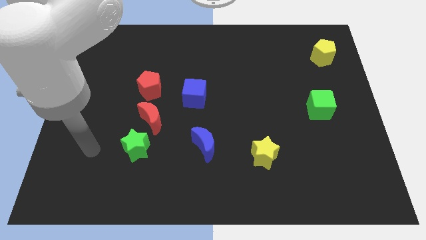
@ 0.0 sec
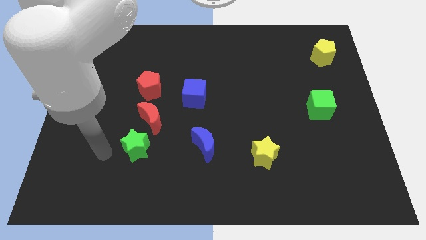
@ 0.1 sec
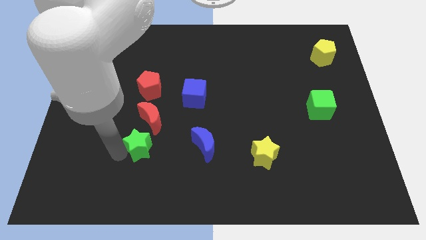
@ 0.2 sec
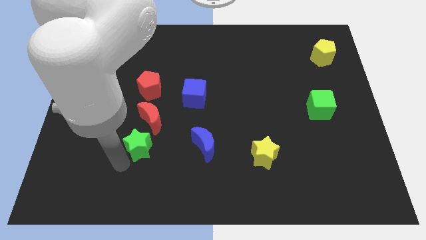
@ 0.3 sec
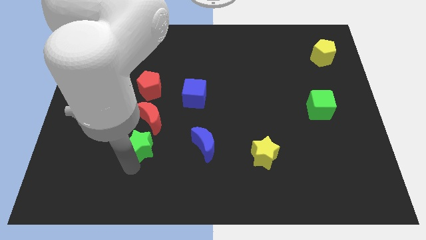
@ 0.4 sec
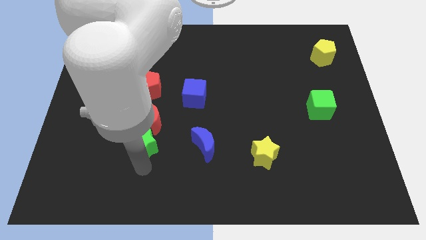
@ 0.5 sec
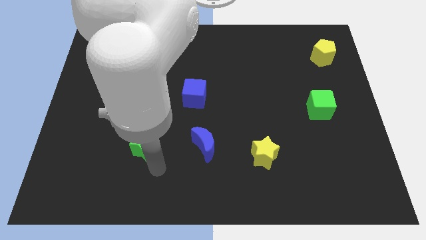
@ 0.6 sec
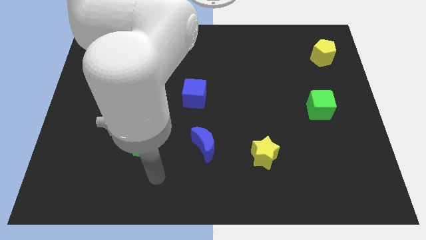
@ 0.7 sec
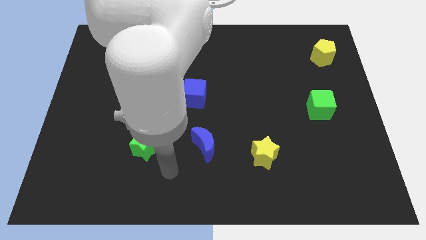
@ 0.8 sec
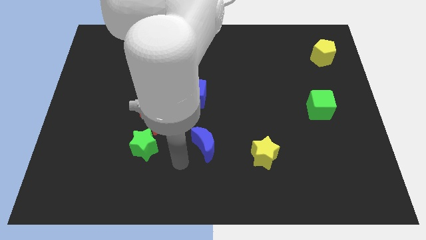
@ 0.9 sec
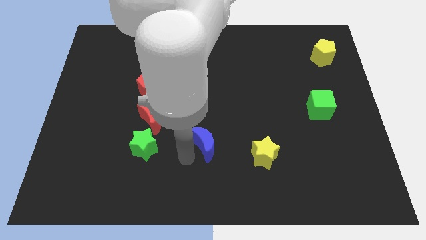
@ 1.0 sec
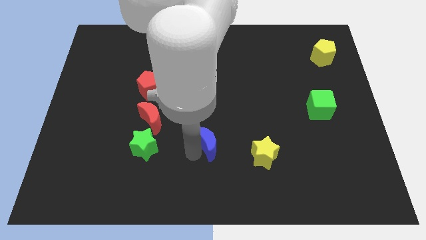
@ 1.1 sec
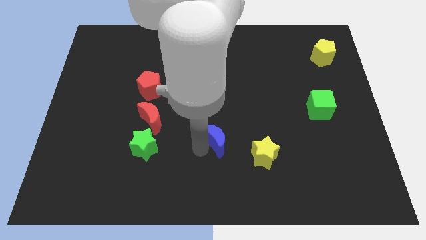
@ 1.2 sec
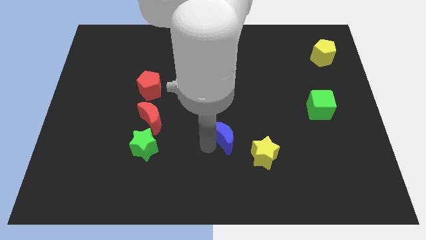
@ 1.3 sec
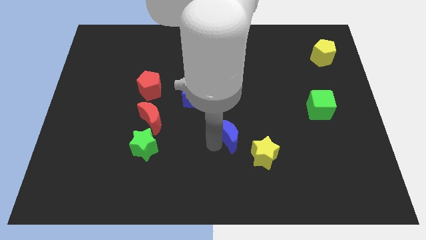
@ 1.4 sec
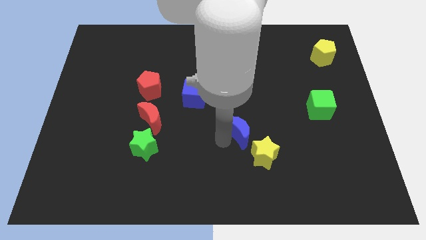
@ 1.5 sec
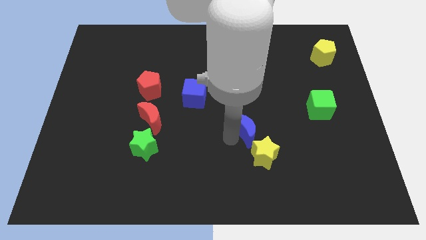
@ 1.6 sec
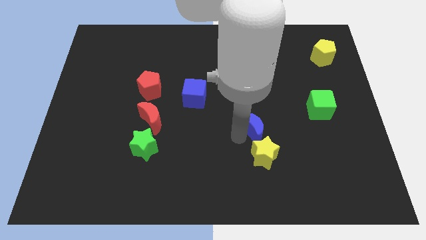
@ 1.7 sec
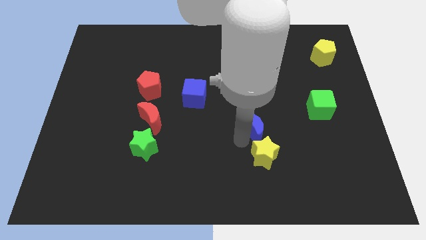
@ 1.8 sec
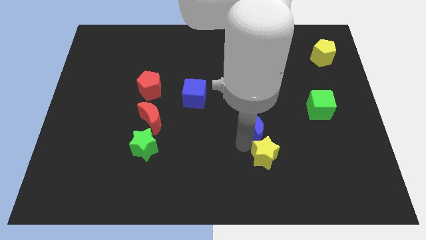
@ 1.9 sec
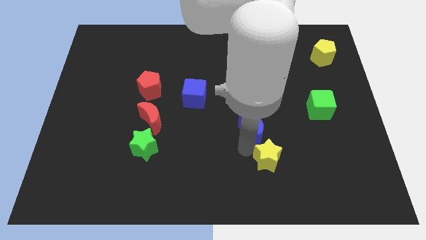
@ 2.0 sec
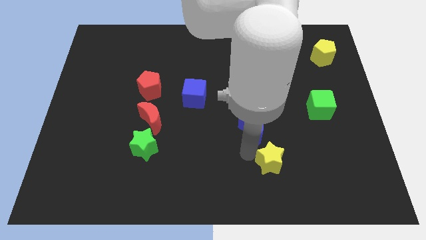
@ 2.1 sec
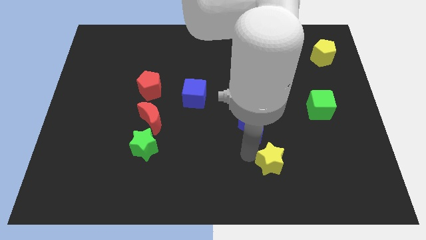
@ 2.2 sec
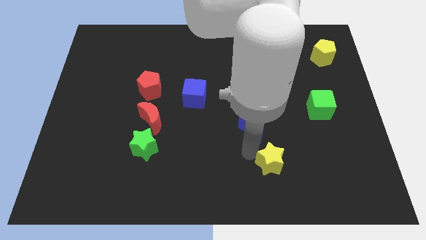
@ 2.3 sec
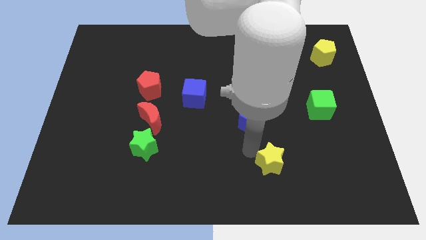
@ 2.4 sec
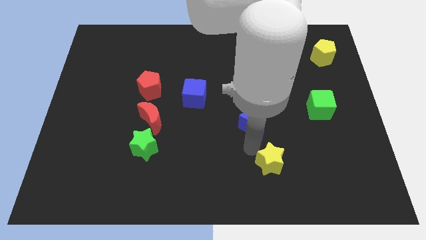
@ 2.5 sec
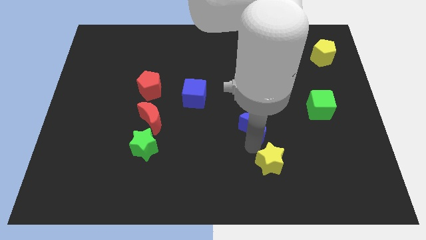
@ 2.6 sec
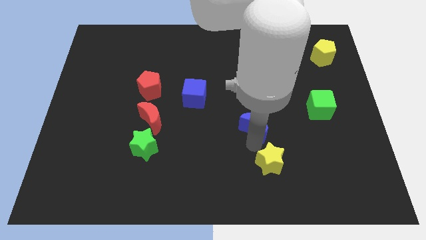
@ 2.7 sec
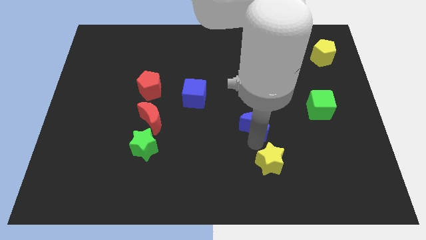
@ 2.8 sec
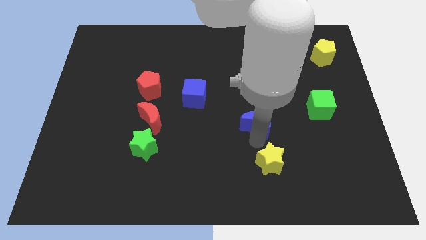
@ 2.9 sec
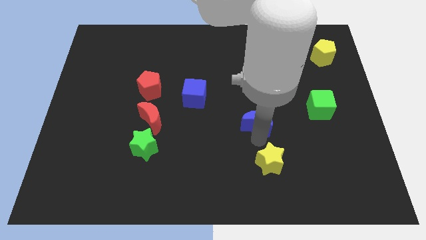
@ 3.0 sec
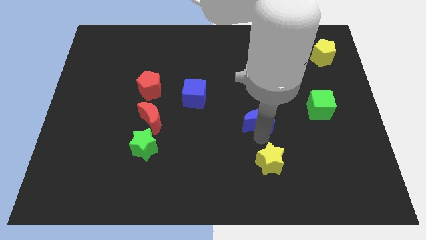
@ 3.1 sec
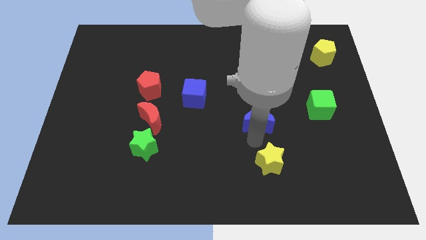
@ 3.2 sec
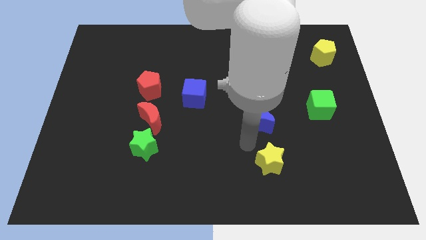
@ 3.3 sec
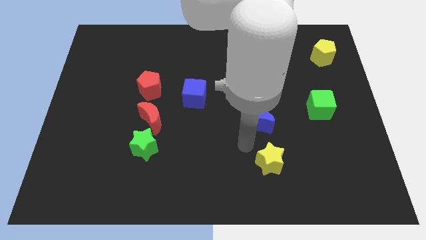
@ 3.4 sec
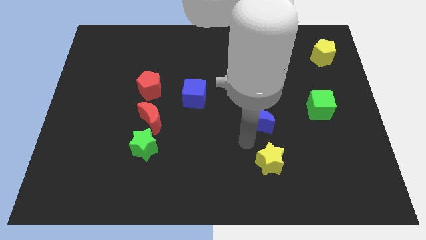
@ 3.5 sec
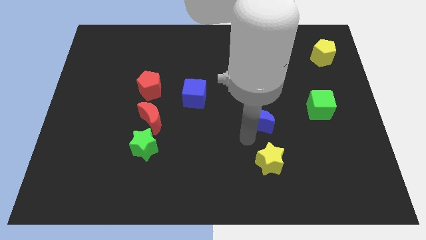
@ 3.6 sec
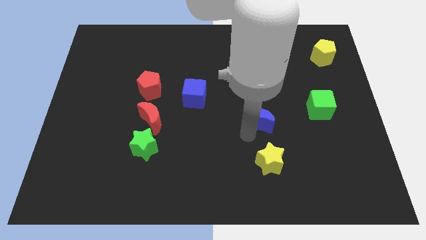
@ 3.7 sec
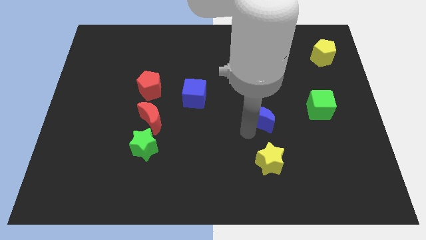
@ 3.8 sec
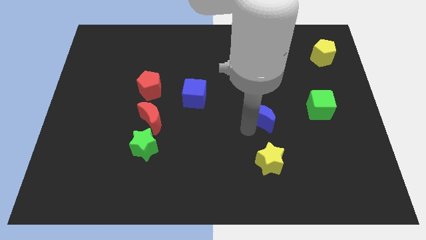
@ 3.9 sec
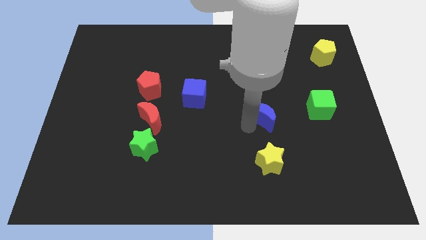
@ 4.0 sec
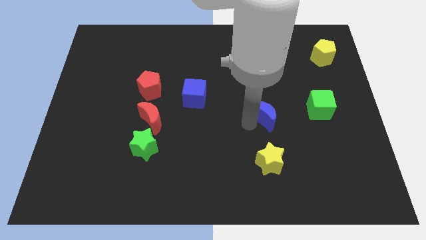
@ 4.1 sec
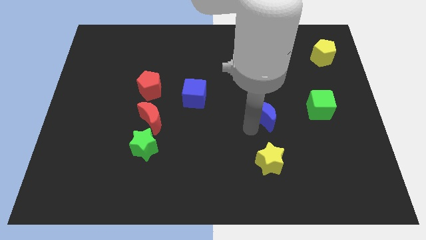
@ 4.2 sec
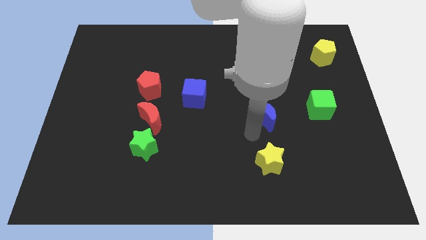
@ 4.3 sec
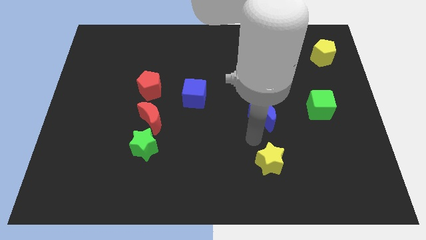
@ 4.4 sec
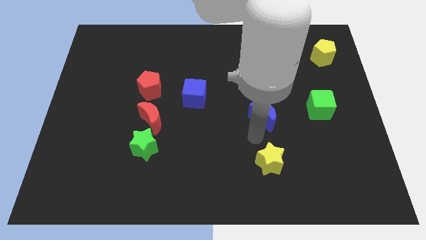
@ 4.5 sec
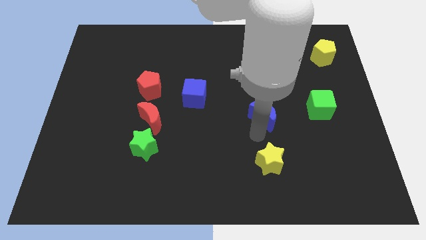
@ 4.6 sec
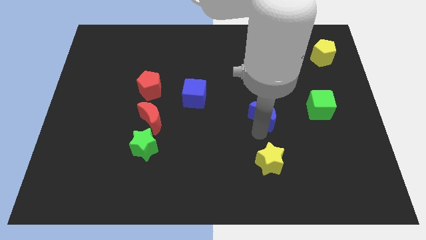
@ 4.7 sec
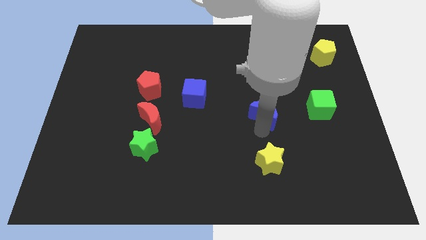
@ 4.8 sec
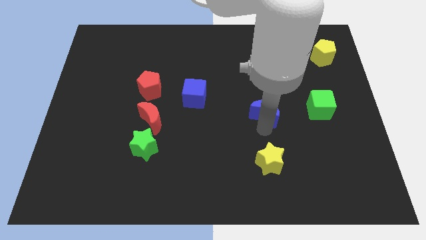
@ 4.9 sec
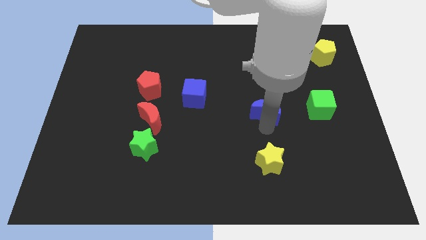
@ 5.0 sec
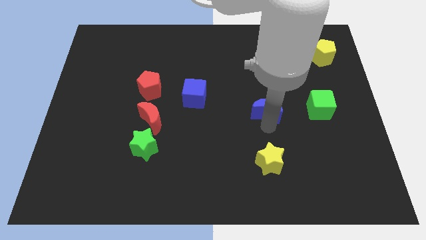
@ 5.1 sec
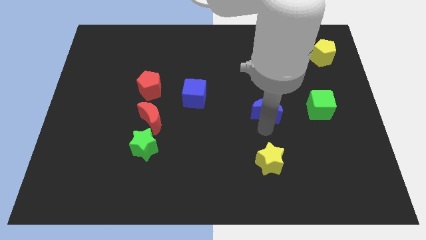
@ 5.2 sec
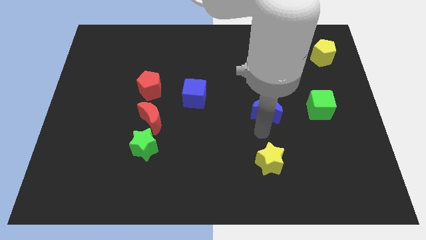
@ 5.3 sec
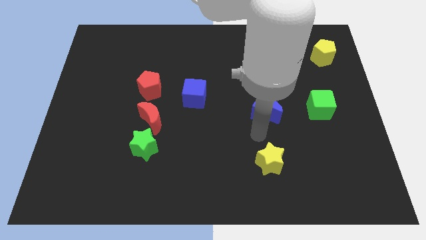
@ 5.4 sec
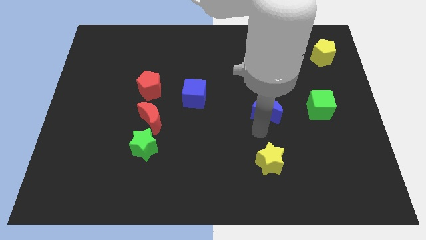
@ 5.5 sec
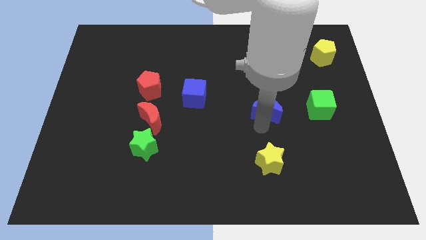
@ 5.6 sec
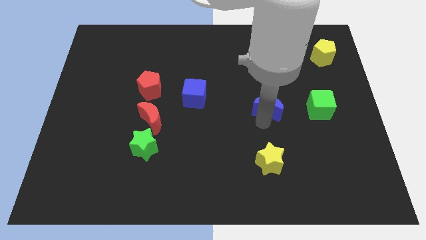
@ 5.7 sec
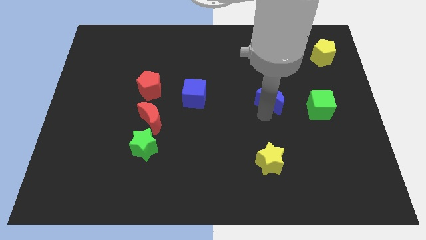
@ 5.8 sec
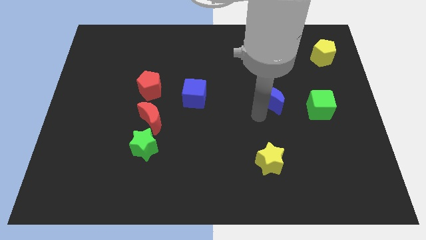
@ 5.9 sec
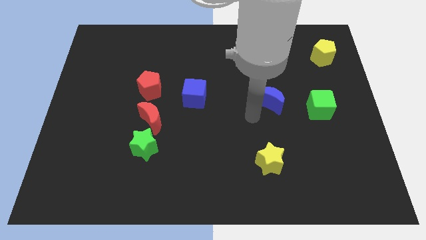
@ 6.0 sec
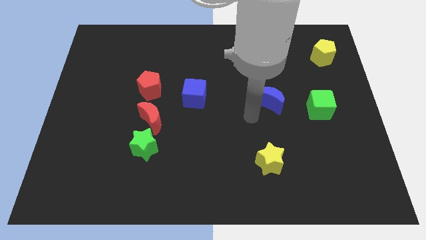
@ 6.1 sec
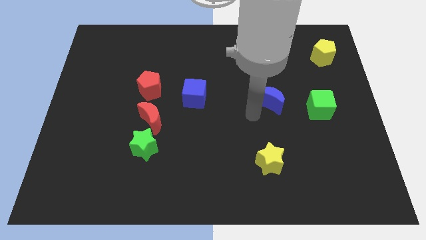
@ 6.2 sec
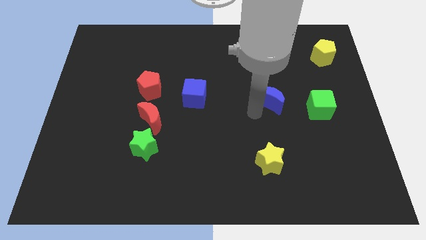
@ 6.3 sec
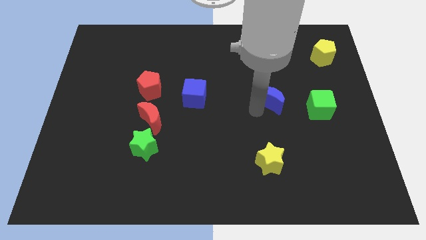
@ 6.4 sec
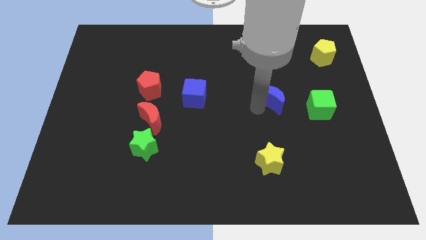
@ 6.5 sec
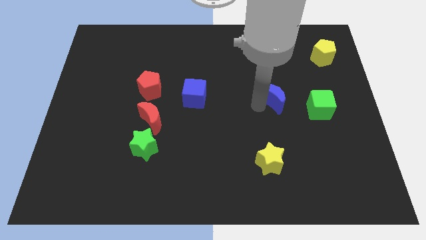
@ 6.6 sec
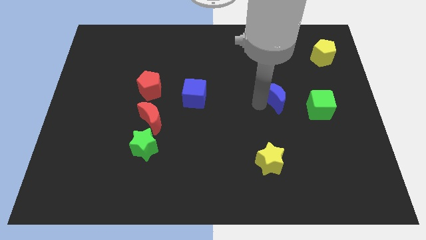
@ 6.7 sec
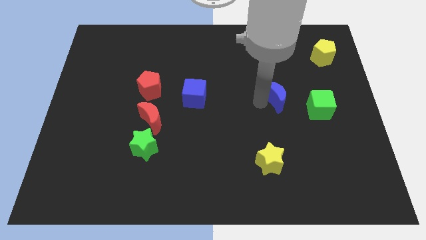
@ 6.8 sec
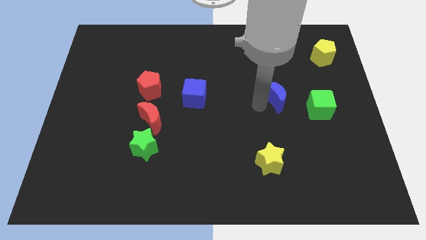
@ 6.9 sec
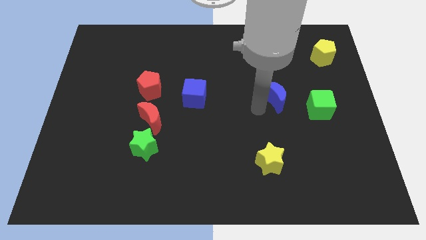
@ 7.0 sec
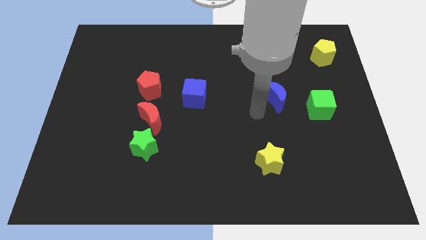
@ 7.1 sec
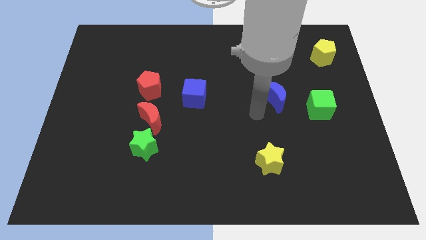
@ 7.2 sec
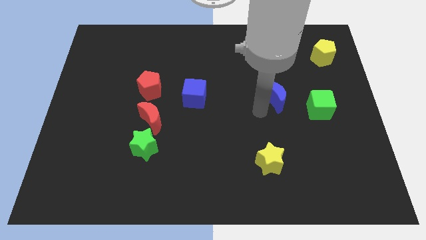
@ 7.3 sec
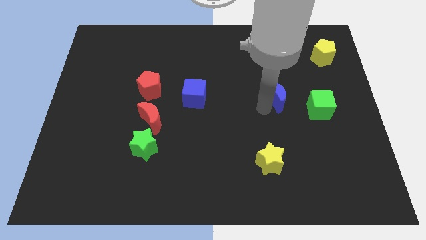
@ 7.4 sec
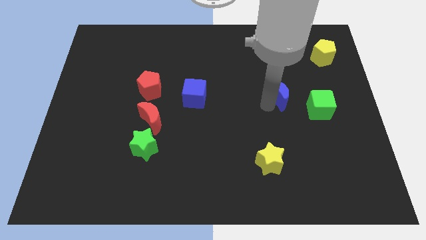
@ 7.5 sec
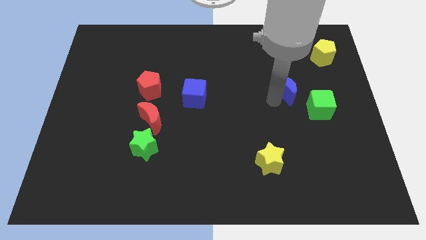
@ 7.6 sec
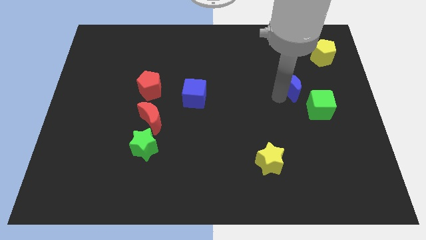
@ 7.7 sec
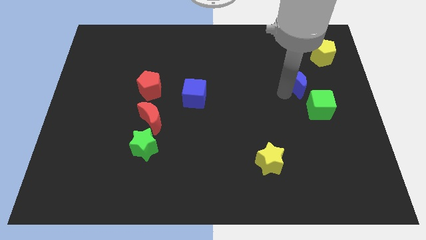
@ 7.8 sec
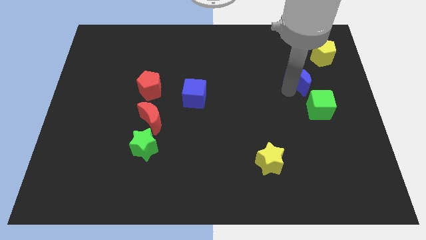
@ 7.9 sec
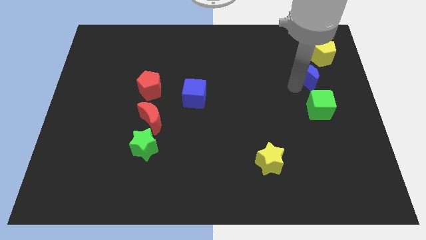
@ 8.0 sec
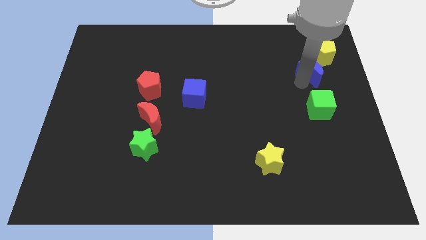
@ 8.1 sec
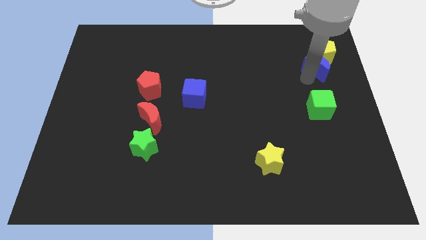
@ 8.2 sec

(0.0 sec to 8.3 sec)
slide the blue moon close to the yellow pentagon
